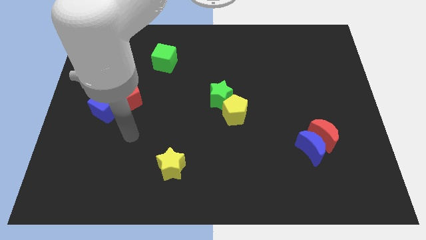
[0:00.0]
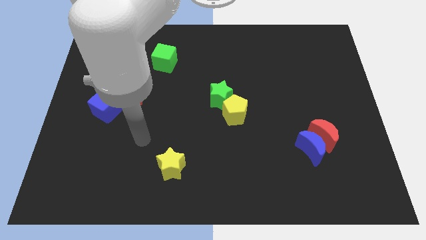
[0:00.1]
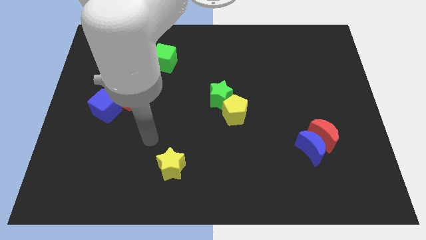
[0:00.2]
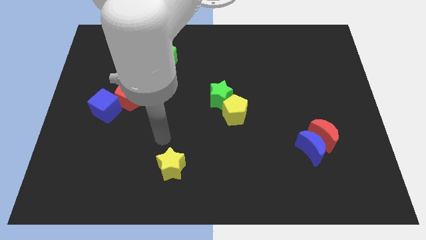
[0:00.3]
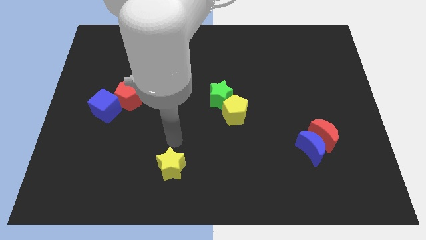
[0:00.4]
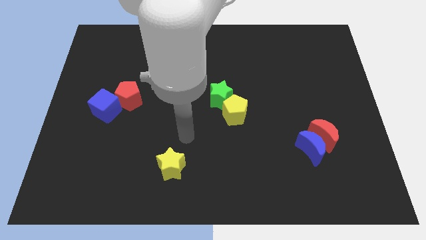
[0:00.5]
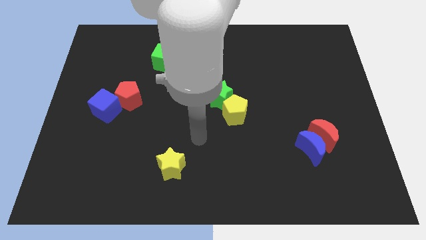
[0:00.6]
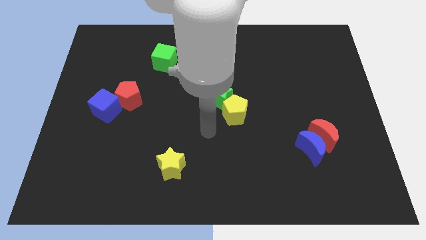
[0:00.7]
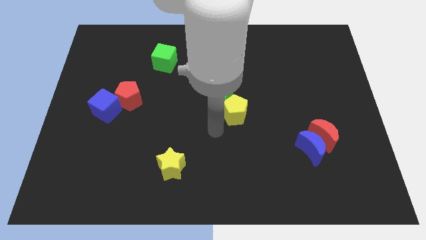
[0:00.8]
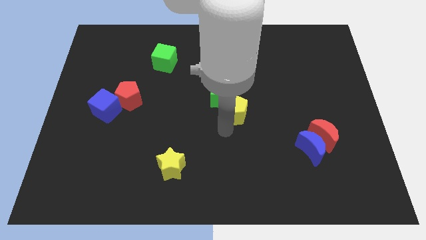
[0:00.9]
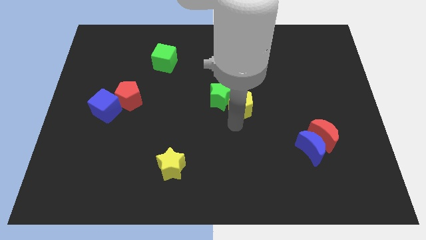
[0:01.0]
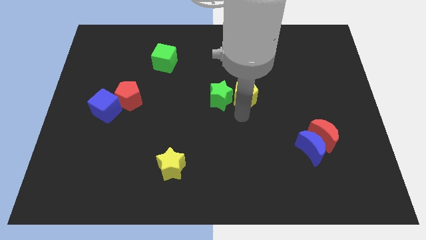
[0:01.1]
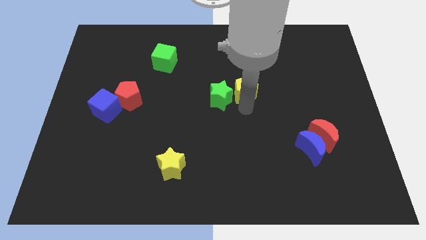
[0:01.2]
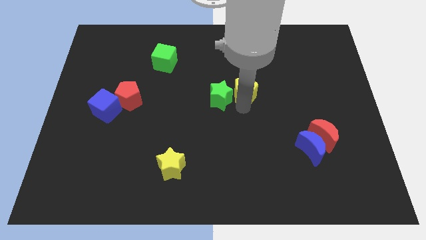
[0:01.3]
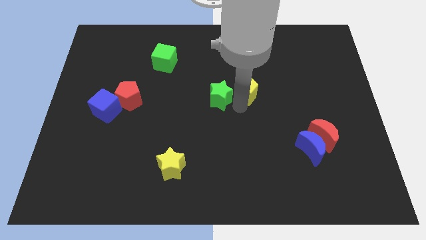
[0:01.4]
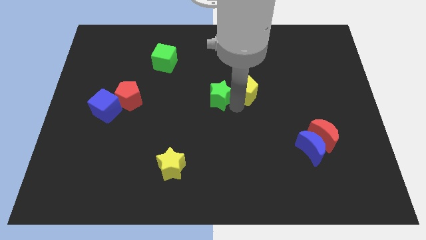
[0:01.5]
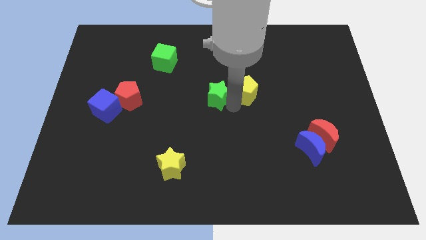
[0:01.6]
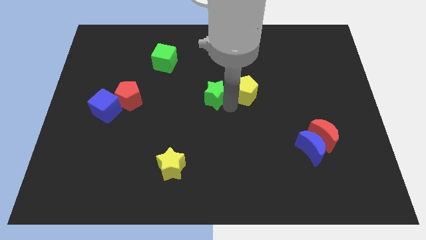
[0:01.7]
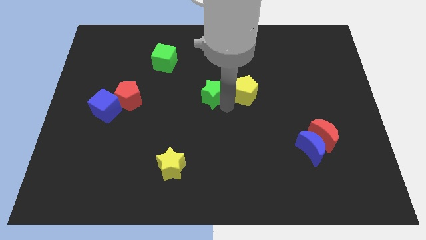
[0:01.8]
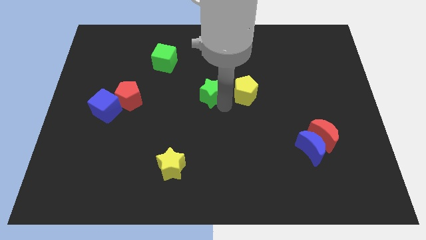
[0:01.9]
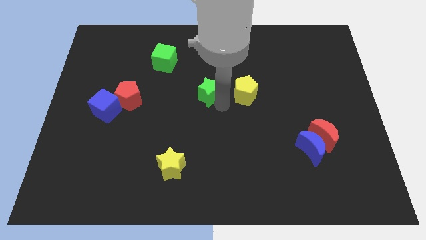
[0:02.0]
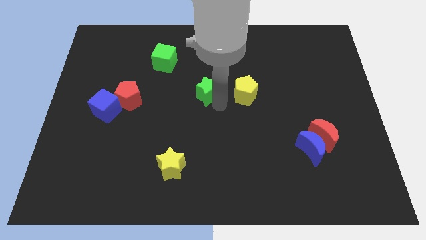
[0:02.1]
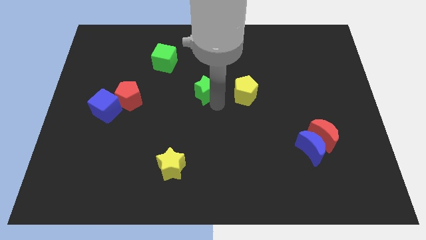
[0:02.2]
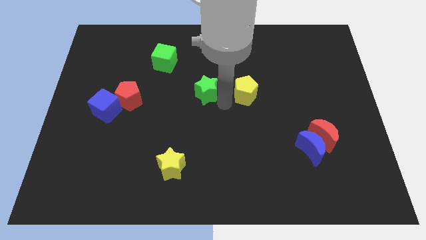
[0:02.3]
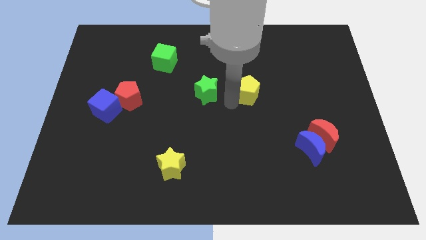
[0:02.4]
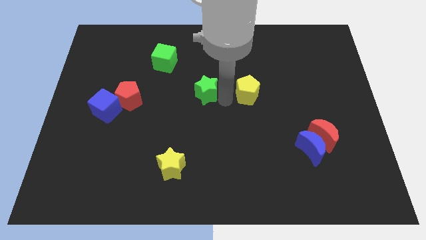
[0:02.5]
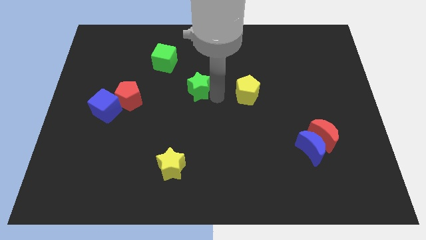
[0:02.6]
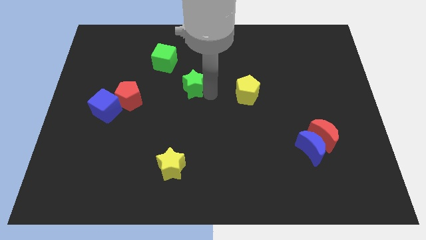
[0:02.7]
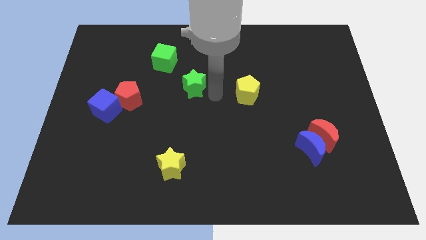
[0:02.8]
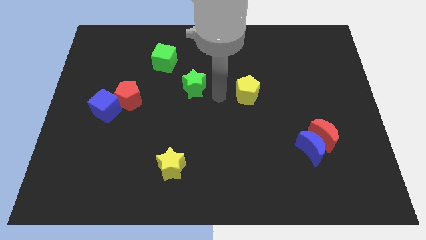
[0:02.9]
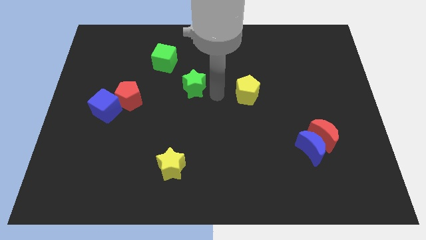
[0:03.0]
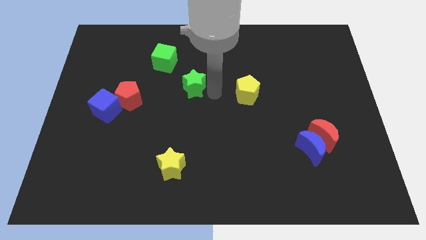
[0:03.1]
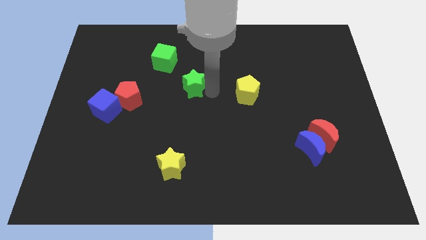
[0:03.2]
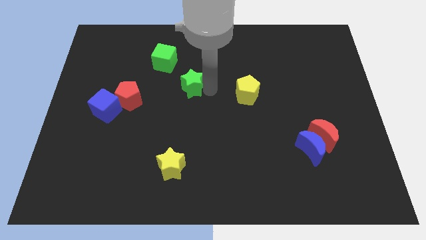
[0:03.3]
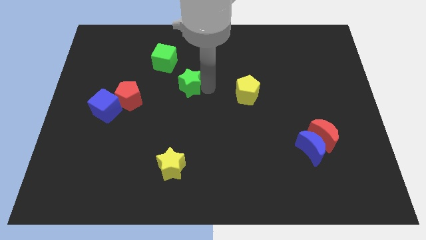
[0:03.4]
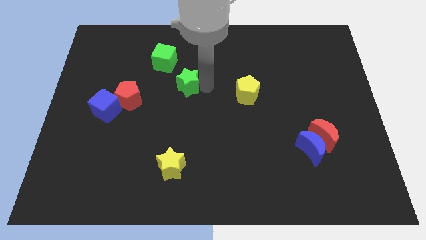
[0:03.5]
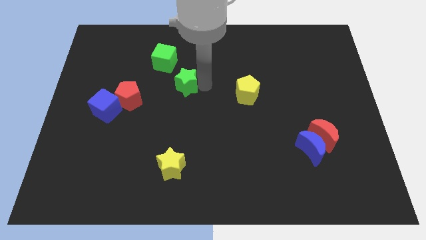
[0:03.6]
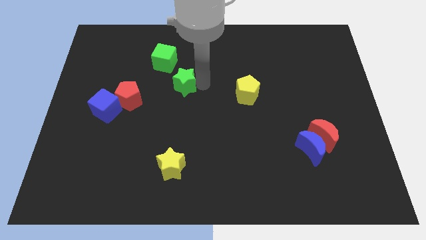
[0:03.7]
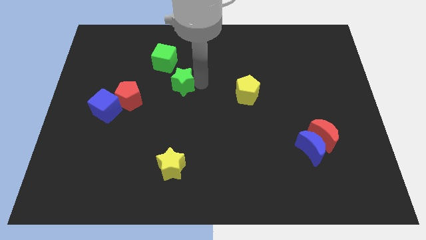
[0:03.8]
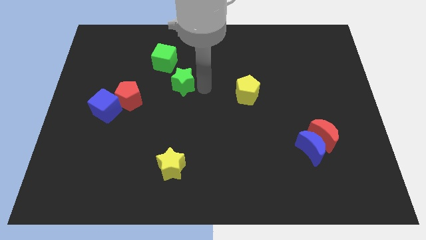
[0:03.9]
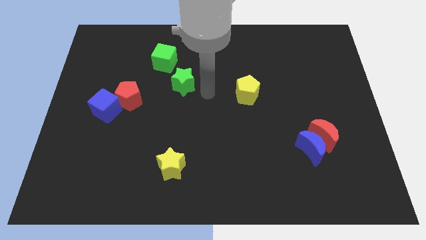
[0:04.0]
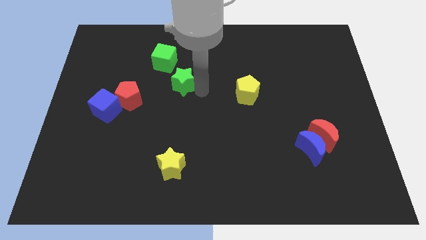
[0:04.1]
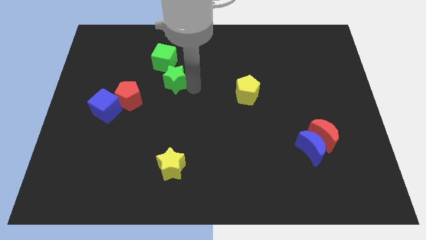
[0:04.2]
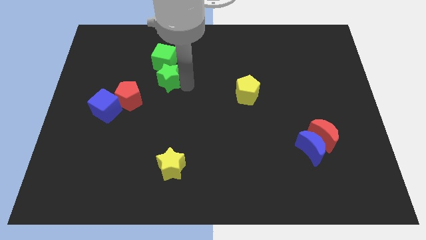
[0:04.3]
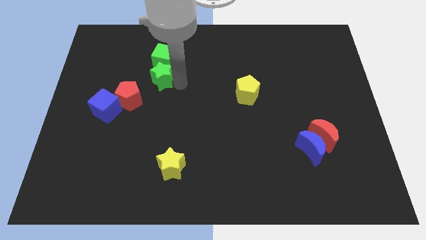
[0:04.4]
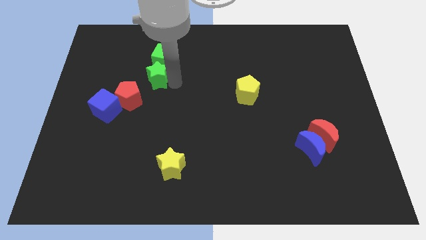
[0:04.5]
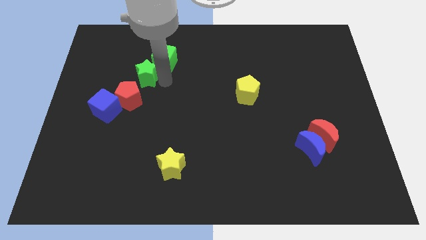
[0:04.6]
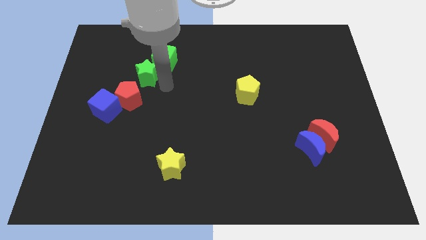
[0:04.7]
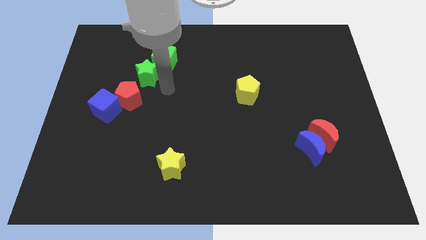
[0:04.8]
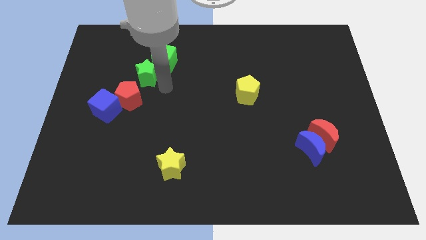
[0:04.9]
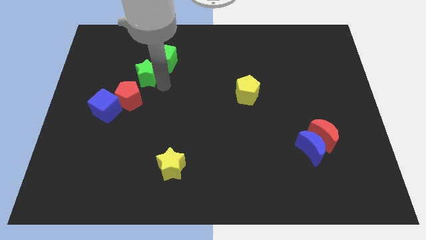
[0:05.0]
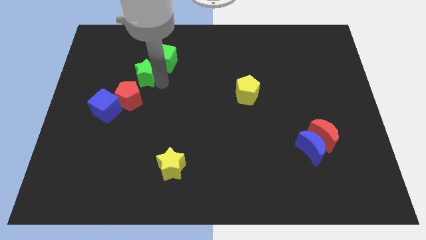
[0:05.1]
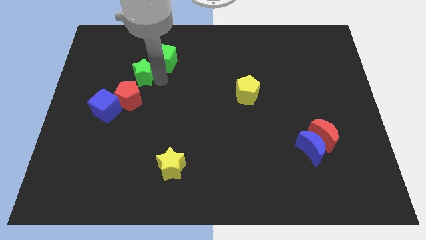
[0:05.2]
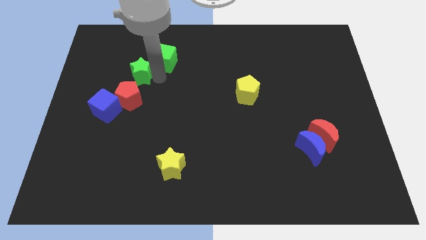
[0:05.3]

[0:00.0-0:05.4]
slide the green star left of the green cube
